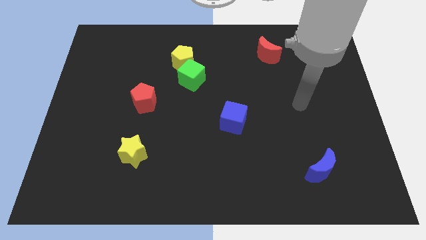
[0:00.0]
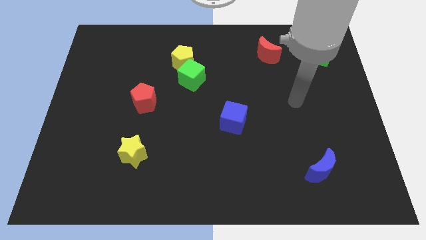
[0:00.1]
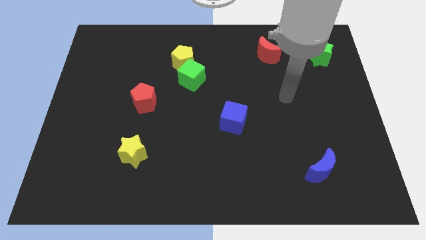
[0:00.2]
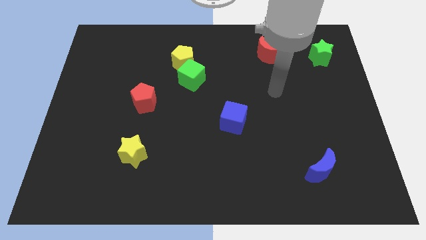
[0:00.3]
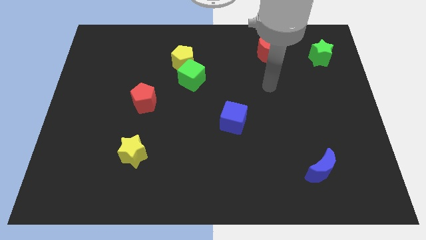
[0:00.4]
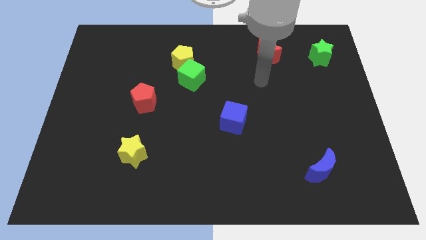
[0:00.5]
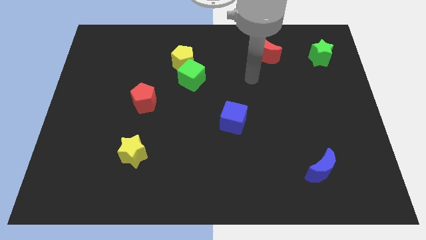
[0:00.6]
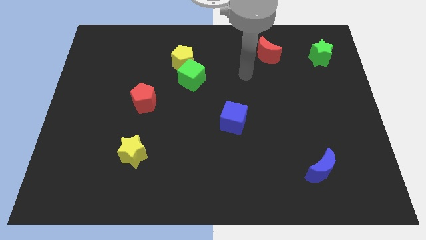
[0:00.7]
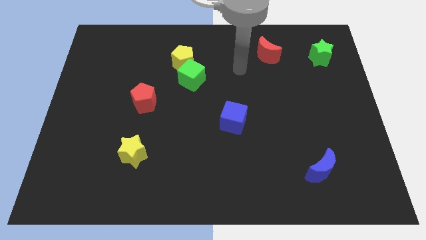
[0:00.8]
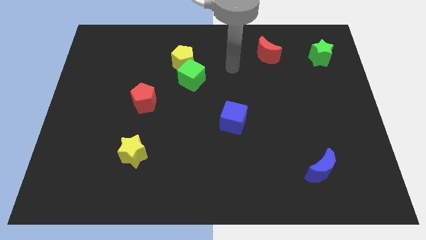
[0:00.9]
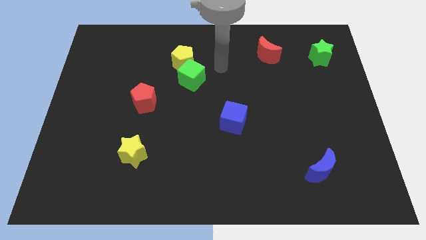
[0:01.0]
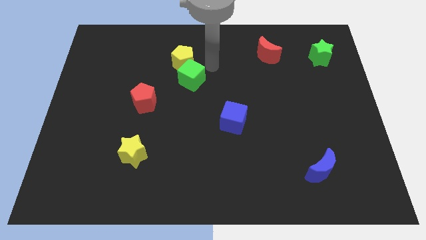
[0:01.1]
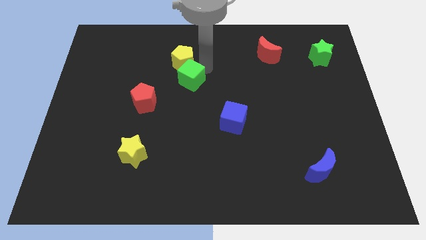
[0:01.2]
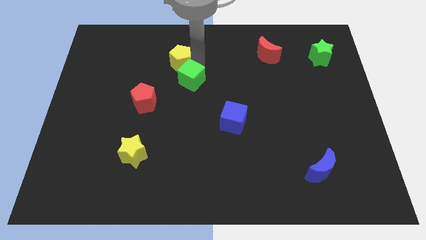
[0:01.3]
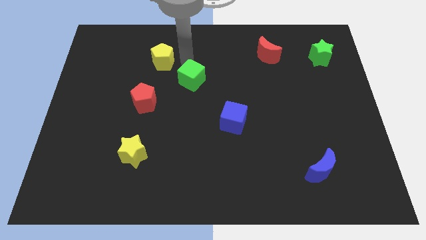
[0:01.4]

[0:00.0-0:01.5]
move the green cube away from the yellow pentagon

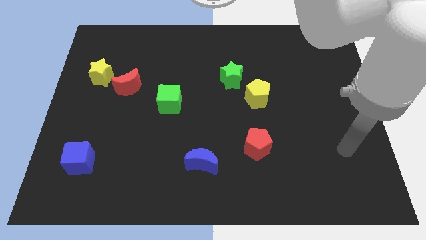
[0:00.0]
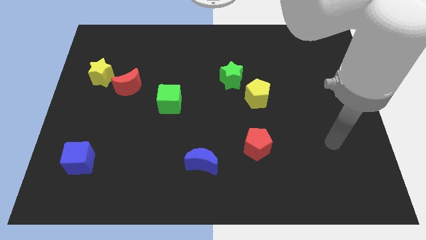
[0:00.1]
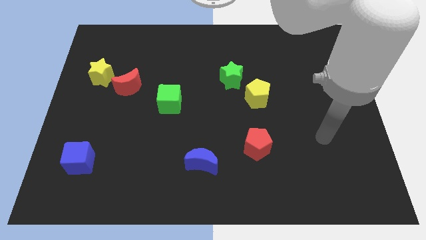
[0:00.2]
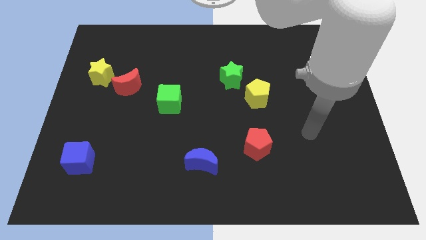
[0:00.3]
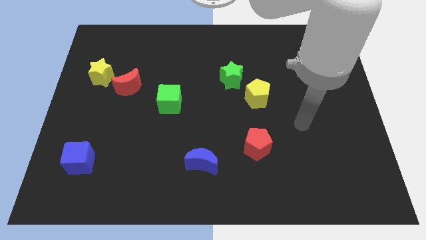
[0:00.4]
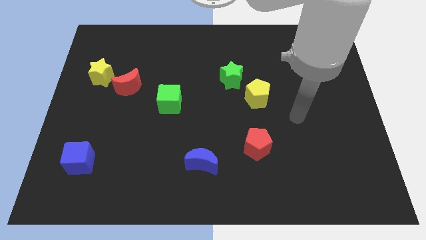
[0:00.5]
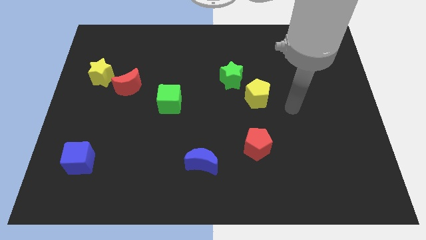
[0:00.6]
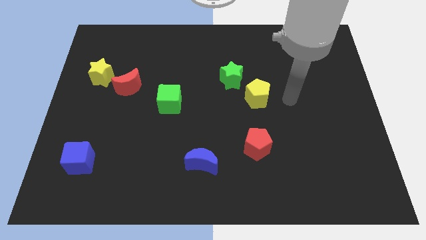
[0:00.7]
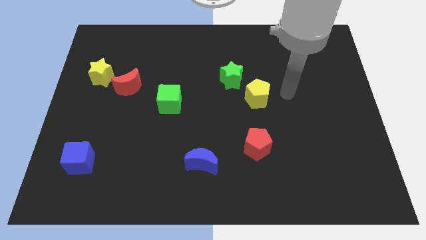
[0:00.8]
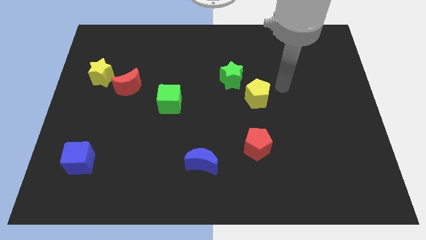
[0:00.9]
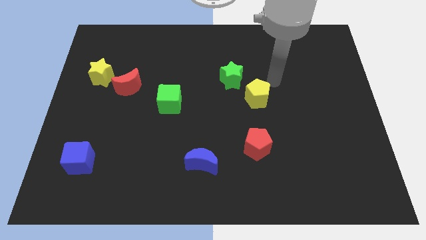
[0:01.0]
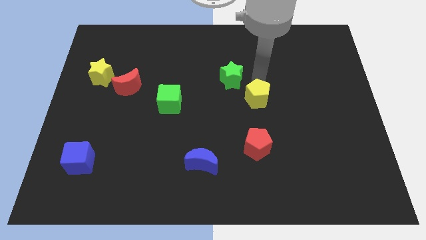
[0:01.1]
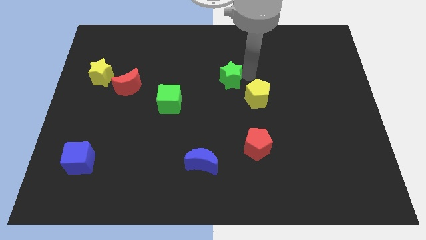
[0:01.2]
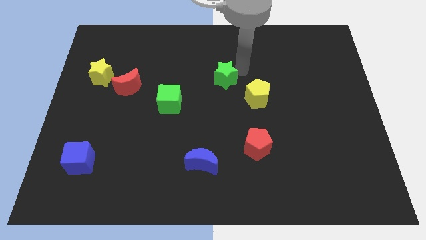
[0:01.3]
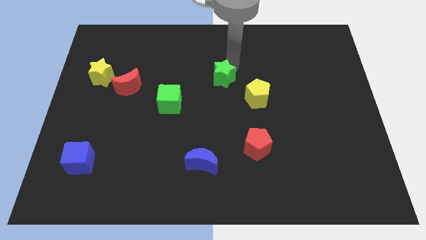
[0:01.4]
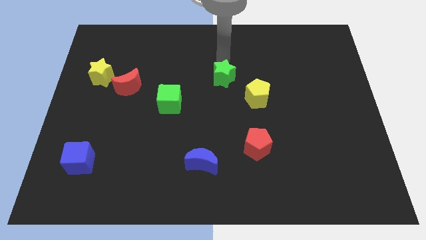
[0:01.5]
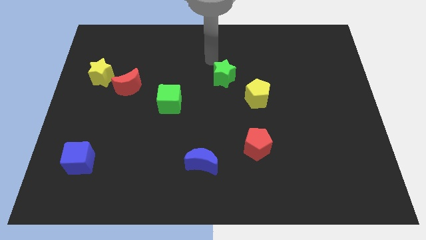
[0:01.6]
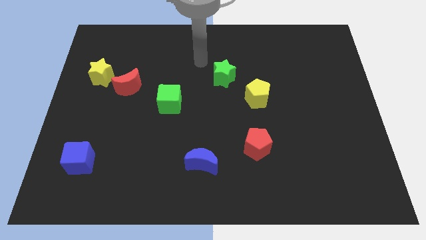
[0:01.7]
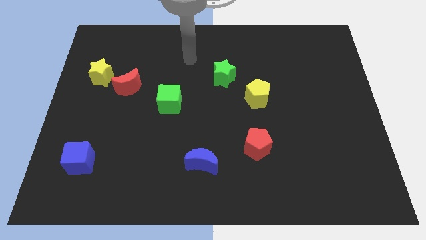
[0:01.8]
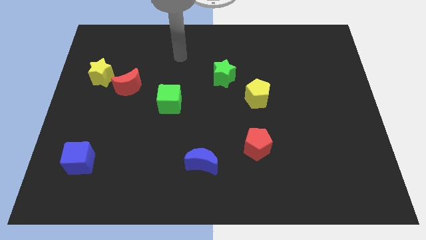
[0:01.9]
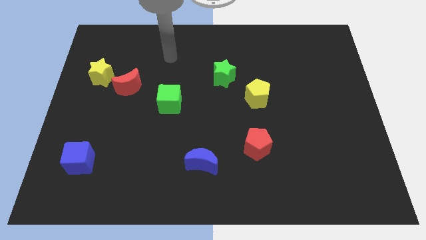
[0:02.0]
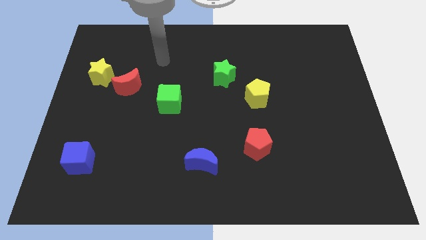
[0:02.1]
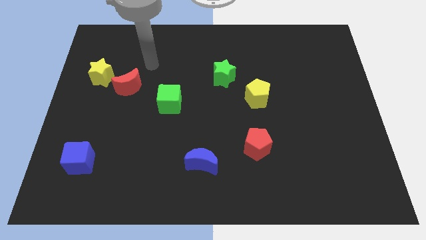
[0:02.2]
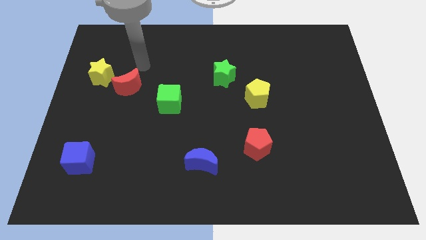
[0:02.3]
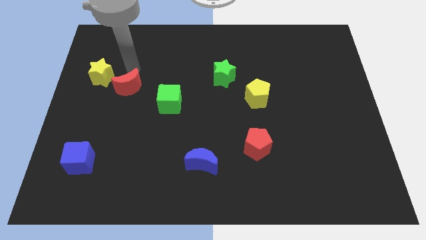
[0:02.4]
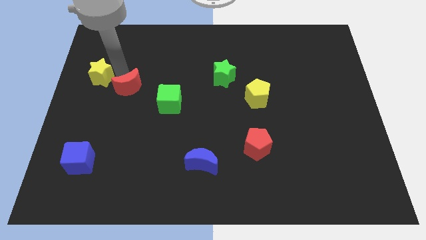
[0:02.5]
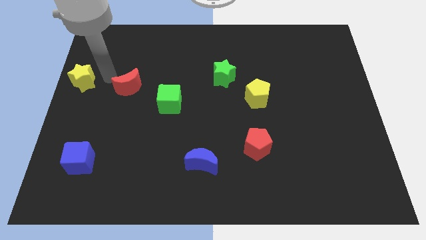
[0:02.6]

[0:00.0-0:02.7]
move the red moon away from the yellow star

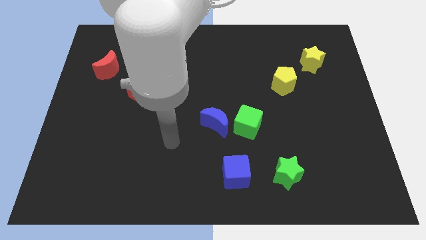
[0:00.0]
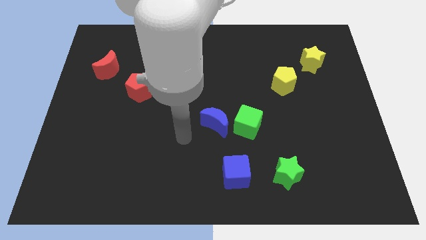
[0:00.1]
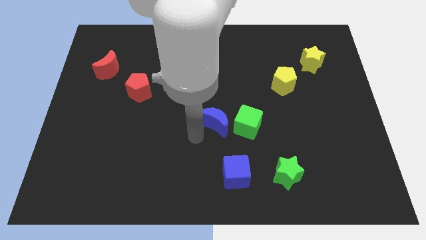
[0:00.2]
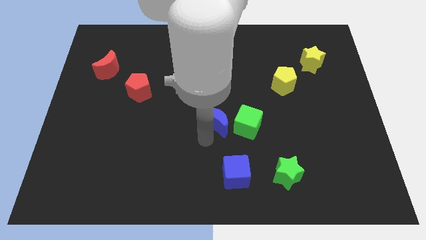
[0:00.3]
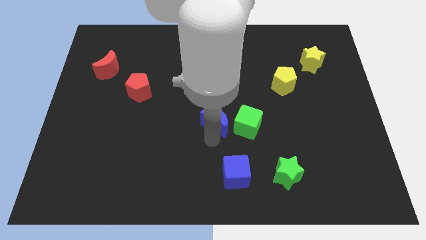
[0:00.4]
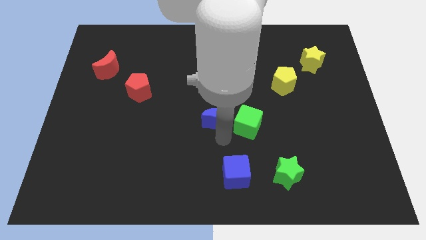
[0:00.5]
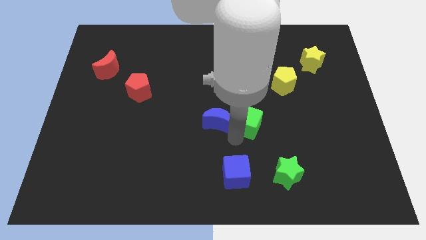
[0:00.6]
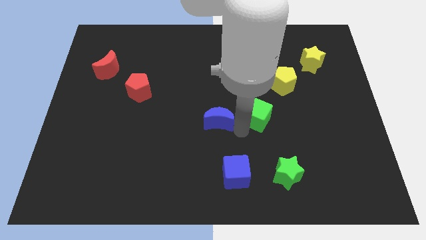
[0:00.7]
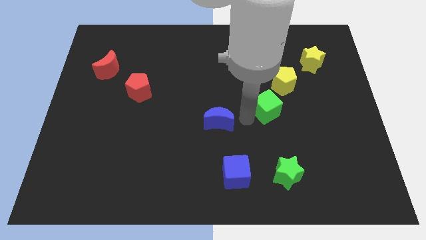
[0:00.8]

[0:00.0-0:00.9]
pull the blue moon apart from the green cube

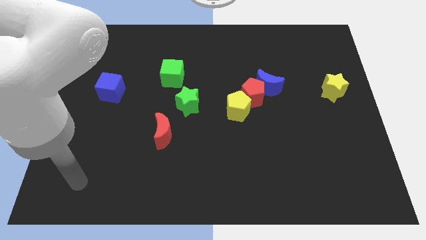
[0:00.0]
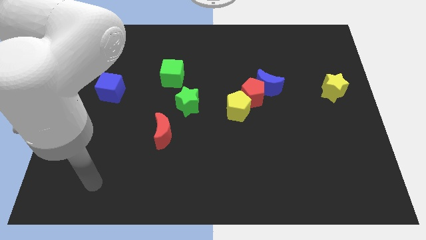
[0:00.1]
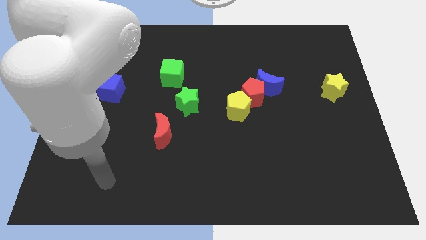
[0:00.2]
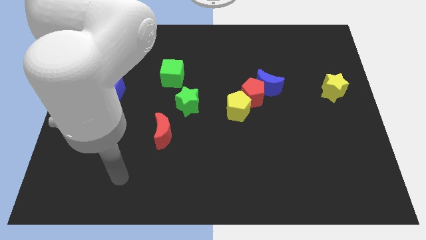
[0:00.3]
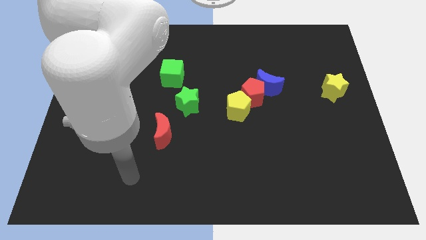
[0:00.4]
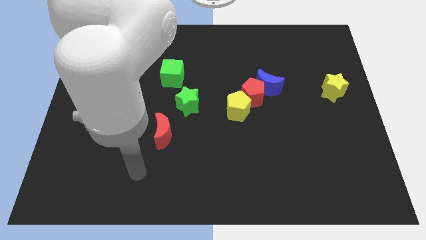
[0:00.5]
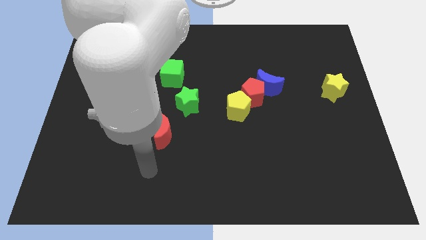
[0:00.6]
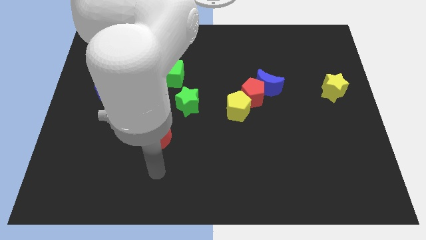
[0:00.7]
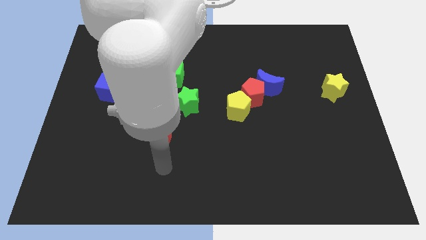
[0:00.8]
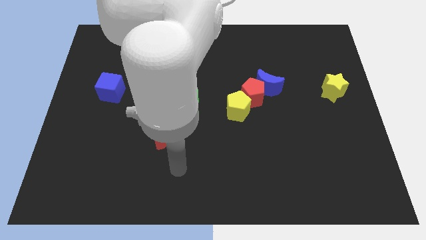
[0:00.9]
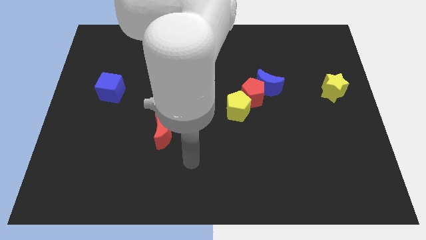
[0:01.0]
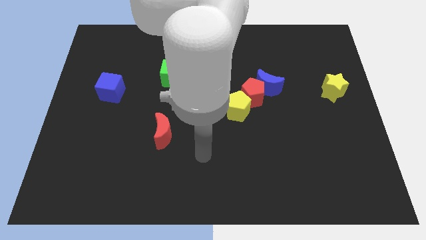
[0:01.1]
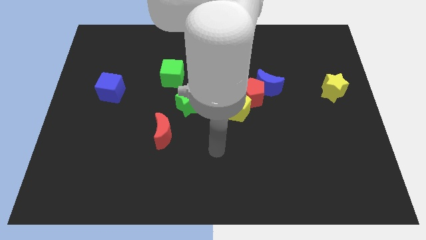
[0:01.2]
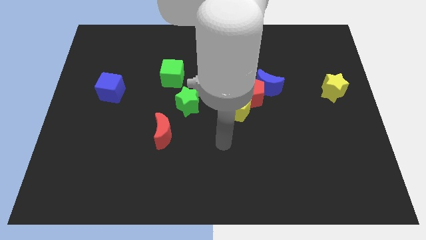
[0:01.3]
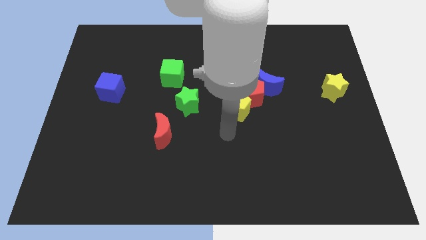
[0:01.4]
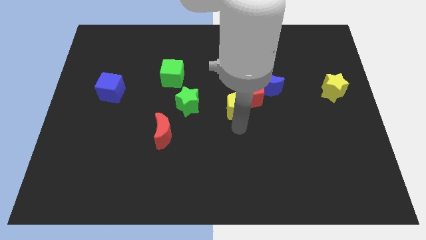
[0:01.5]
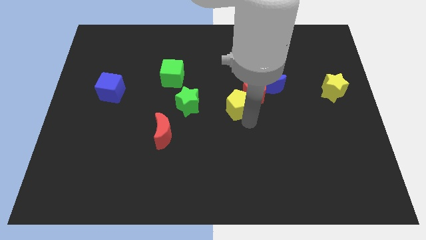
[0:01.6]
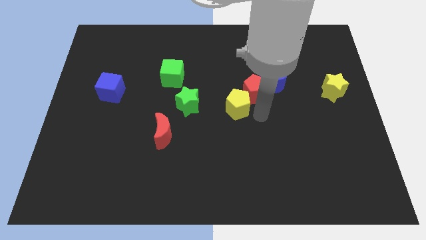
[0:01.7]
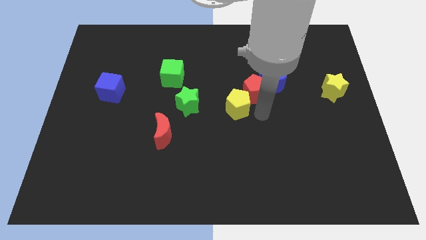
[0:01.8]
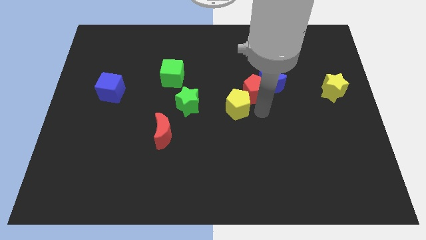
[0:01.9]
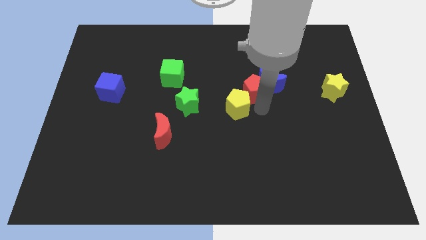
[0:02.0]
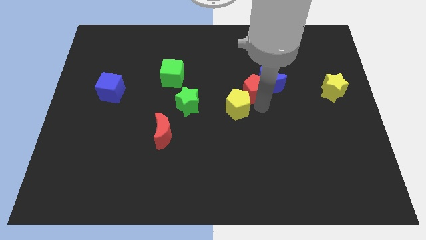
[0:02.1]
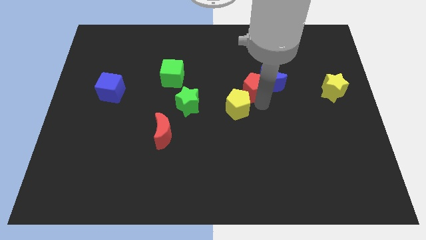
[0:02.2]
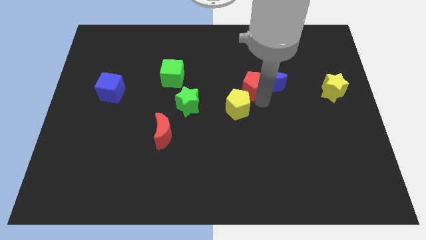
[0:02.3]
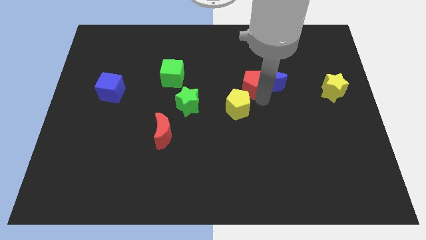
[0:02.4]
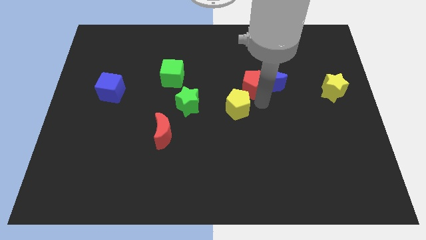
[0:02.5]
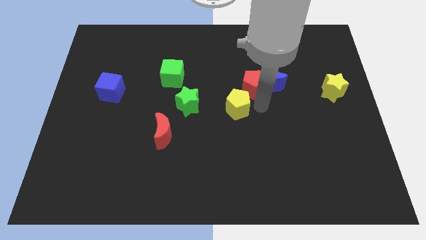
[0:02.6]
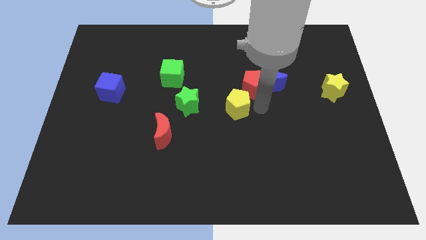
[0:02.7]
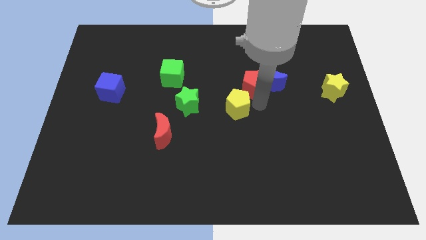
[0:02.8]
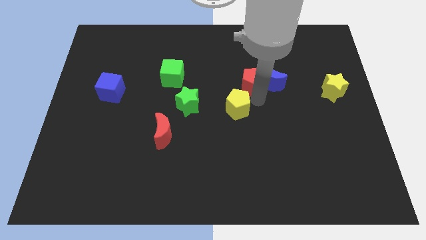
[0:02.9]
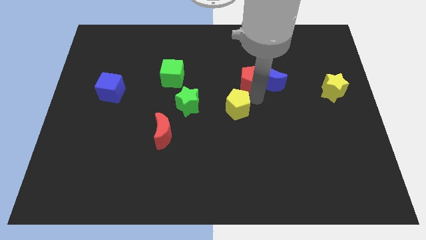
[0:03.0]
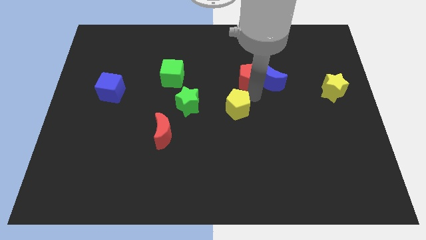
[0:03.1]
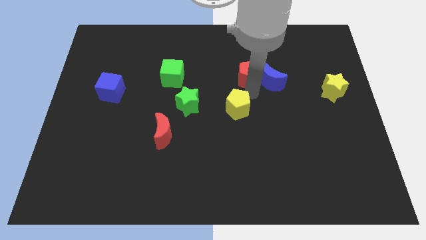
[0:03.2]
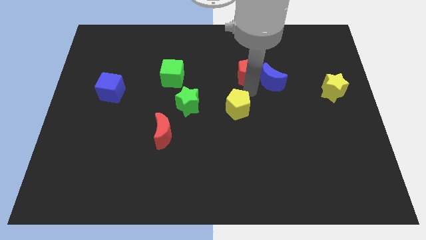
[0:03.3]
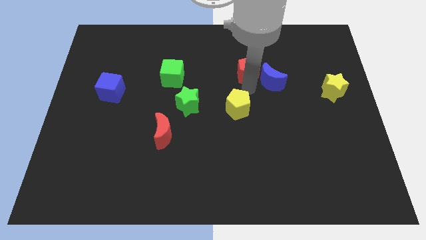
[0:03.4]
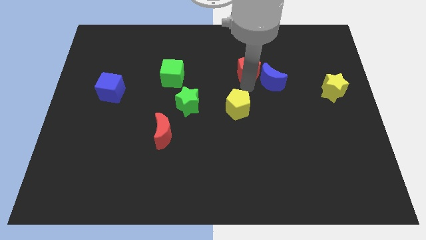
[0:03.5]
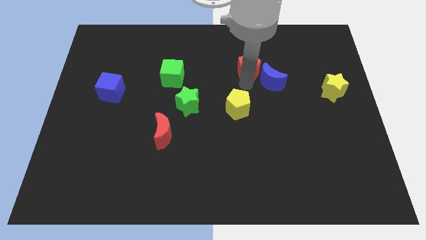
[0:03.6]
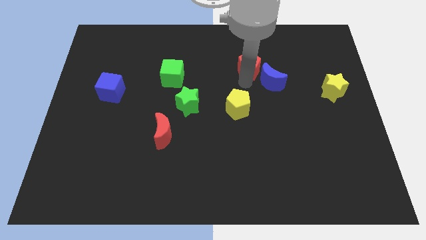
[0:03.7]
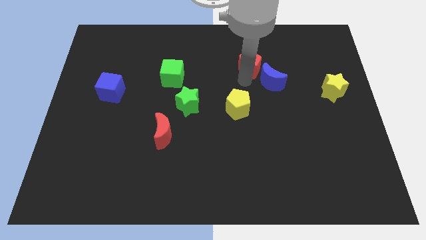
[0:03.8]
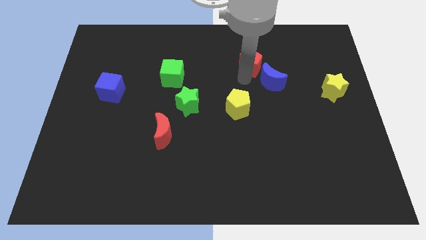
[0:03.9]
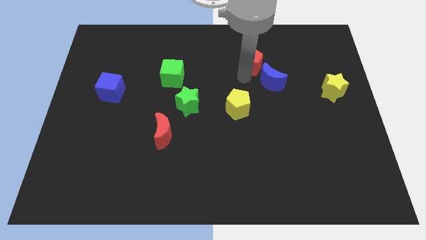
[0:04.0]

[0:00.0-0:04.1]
move the red pentagon away from the blue moon and yellow pentagon

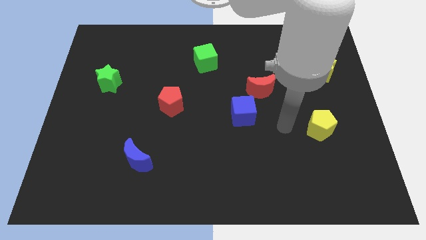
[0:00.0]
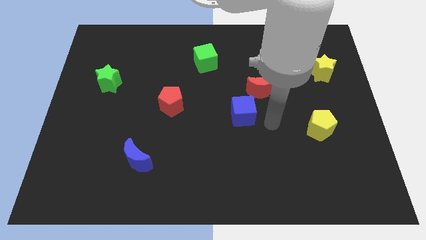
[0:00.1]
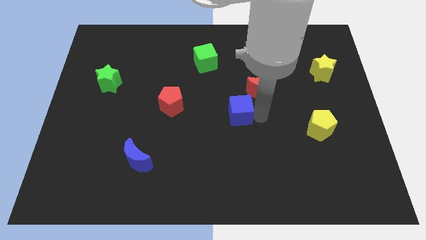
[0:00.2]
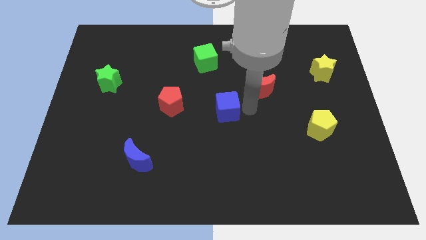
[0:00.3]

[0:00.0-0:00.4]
move the red moon away from the blue cube
